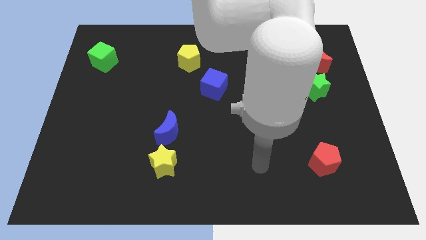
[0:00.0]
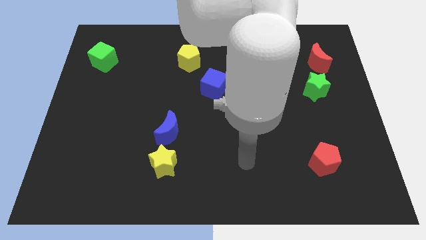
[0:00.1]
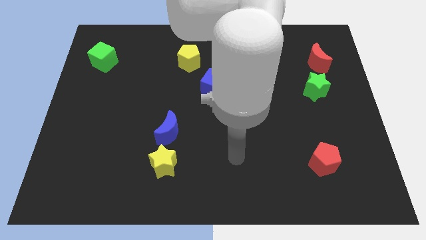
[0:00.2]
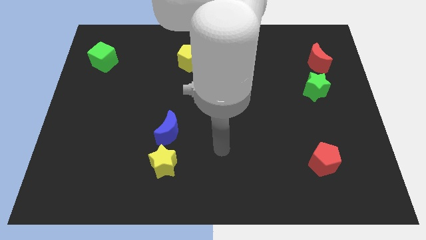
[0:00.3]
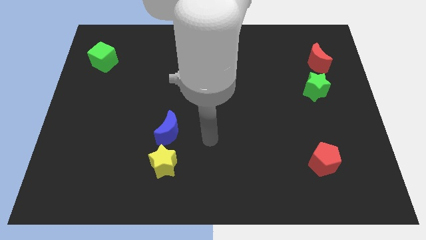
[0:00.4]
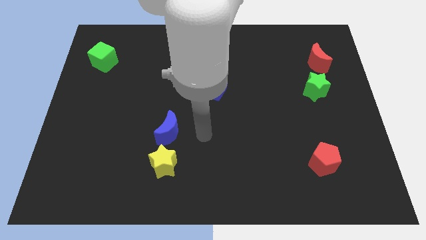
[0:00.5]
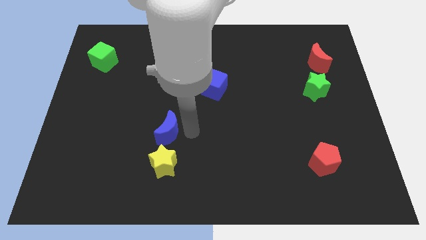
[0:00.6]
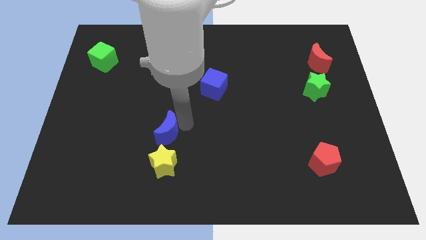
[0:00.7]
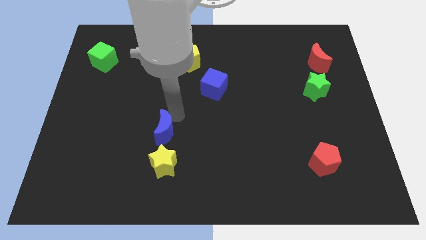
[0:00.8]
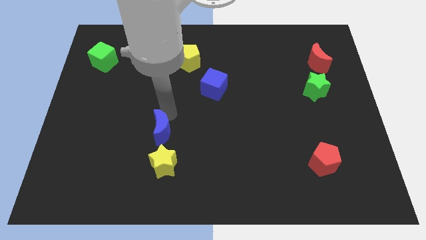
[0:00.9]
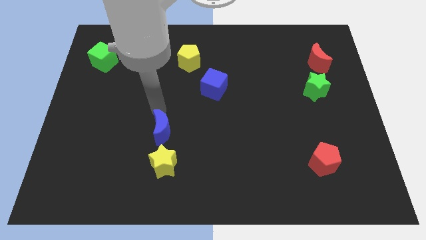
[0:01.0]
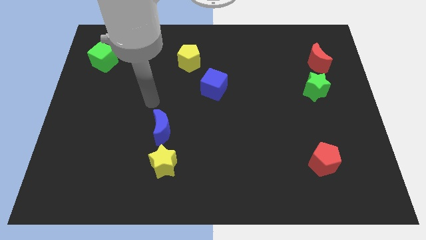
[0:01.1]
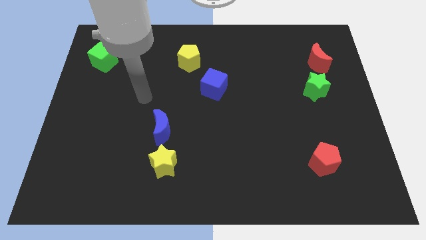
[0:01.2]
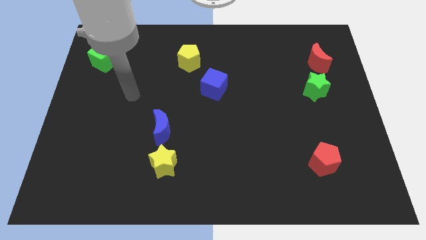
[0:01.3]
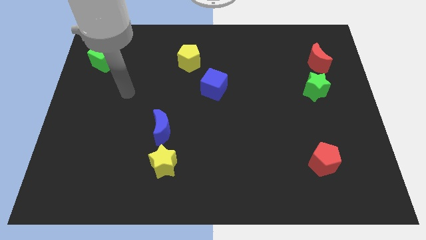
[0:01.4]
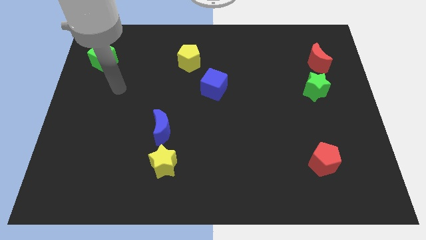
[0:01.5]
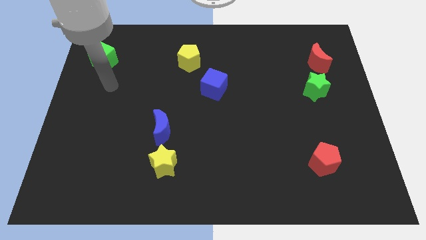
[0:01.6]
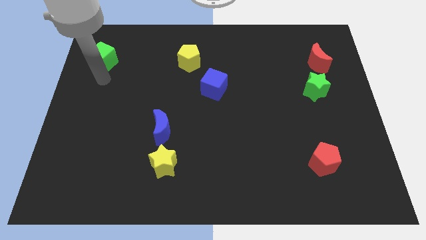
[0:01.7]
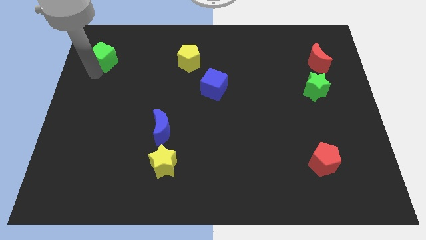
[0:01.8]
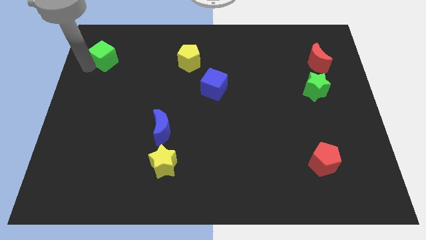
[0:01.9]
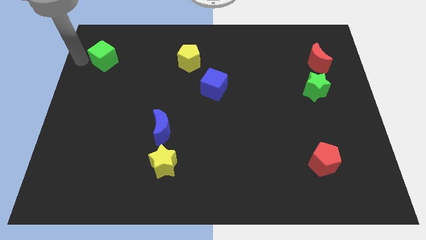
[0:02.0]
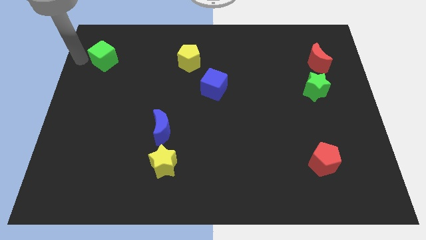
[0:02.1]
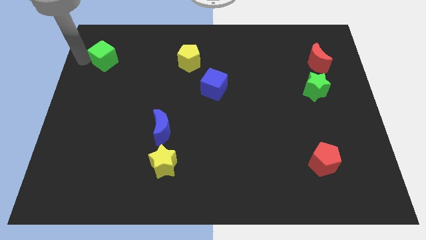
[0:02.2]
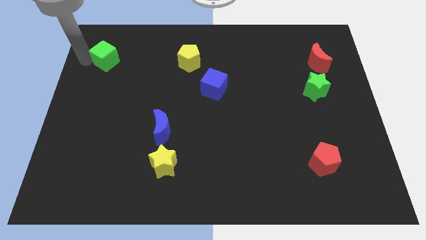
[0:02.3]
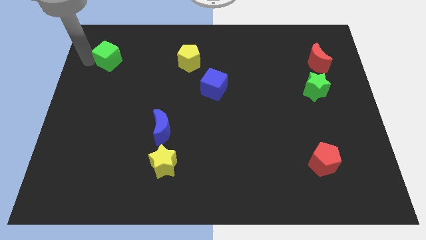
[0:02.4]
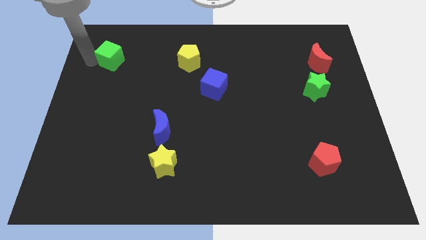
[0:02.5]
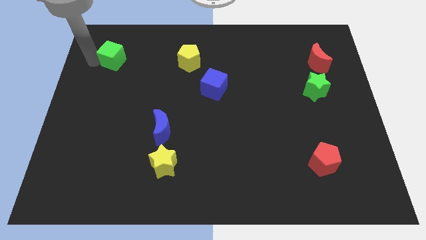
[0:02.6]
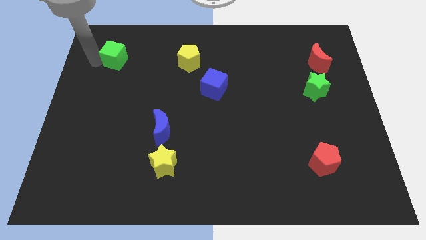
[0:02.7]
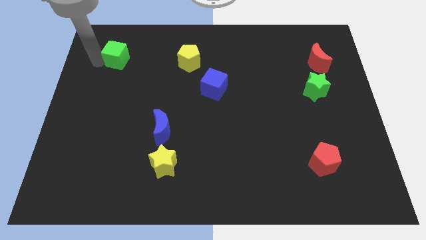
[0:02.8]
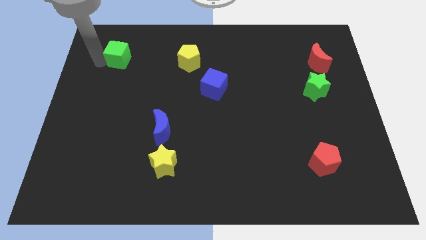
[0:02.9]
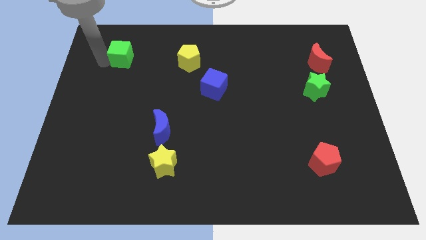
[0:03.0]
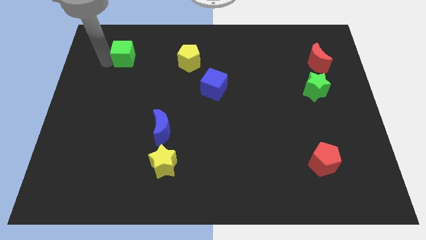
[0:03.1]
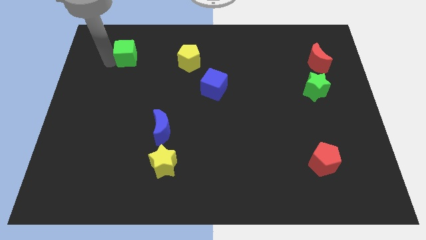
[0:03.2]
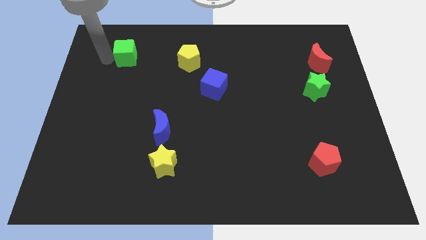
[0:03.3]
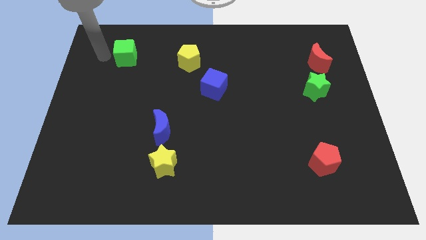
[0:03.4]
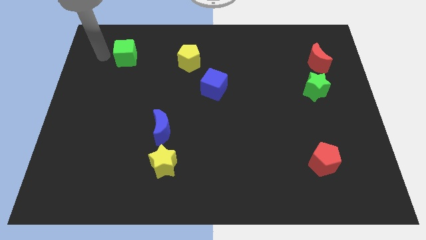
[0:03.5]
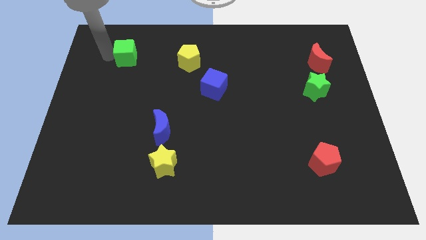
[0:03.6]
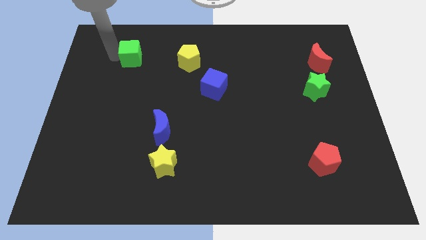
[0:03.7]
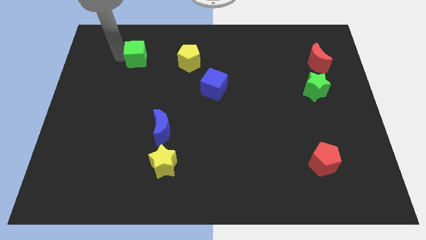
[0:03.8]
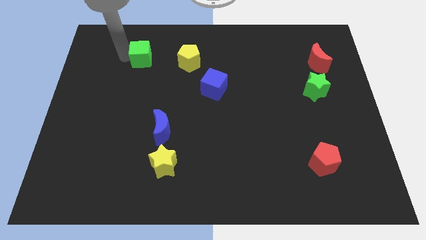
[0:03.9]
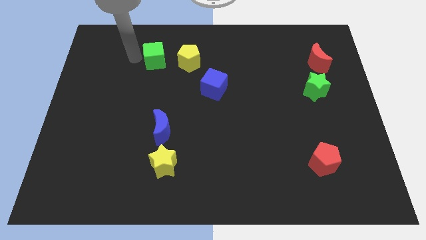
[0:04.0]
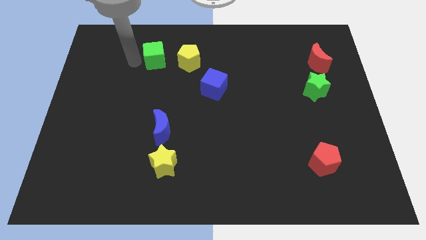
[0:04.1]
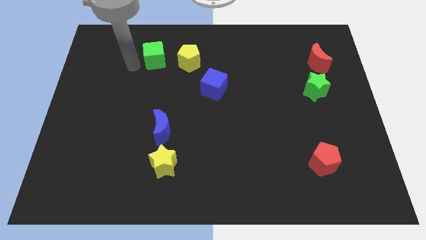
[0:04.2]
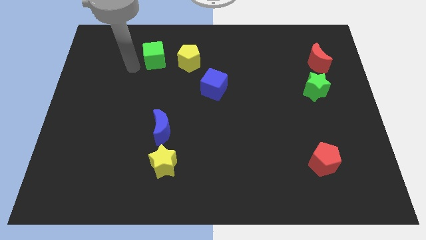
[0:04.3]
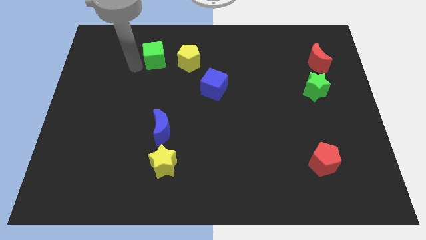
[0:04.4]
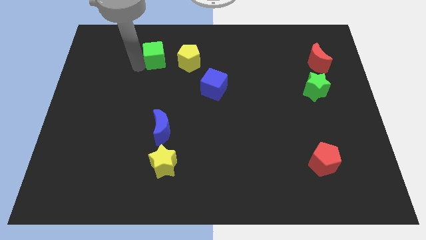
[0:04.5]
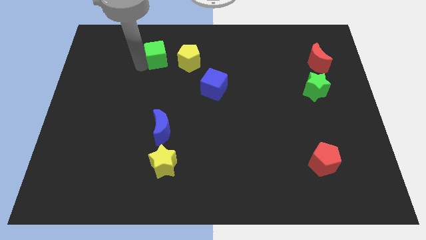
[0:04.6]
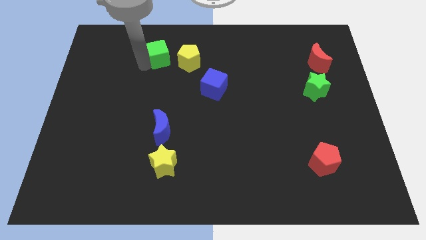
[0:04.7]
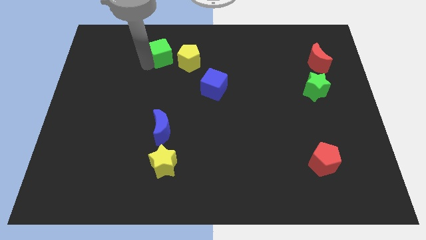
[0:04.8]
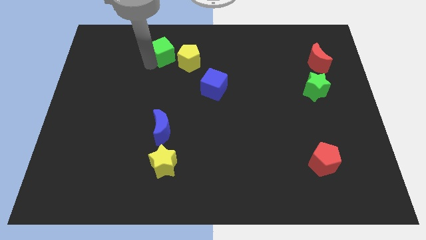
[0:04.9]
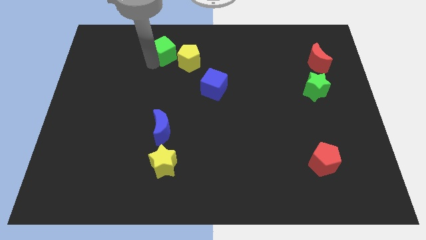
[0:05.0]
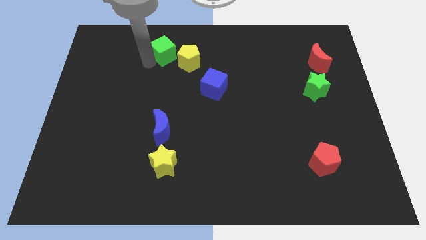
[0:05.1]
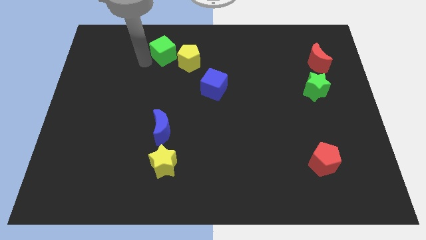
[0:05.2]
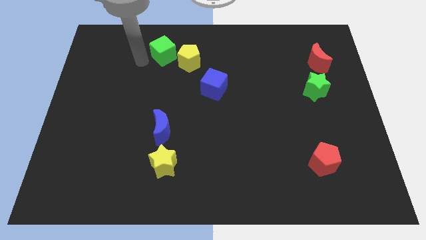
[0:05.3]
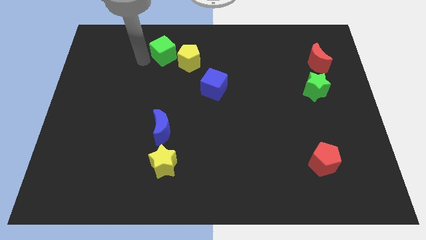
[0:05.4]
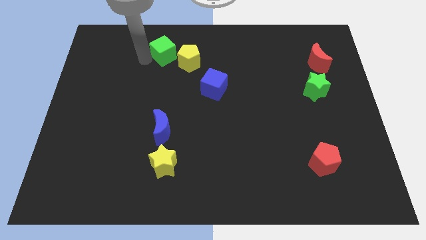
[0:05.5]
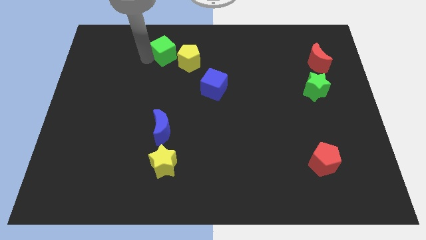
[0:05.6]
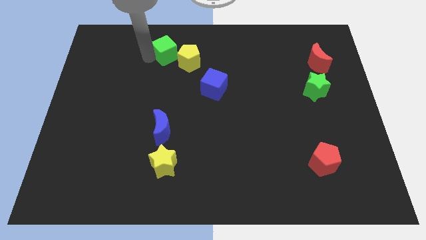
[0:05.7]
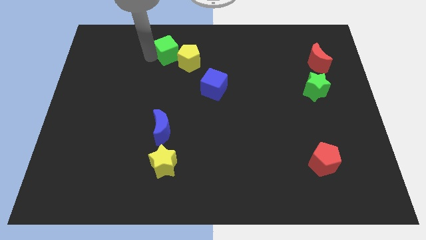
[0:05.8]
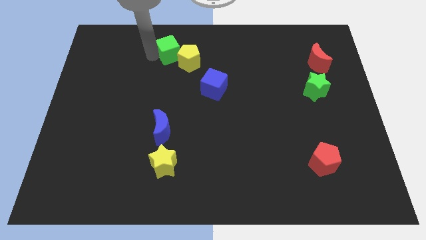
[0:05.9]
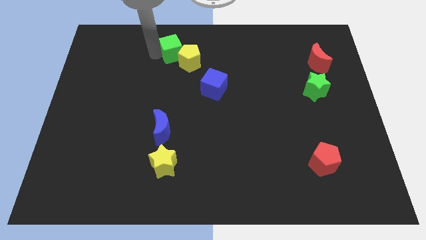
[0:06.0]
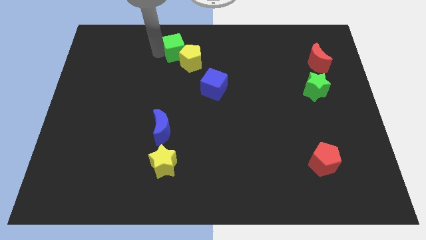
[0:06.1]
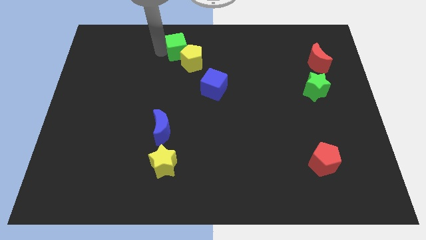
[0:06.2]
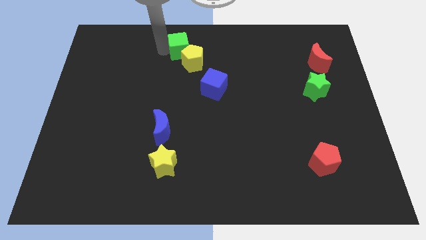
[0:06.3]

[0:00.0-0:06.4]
move the green cube to the top side

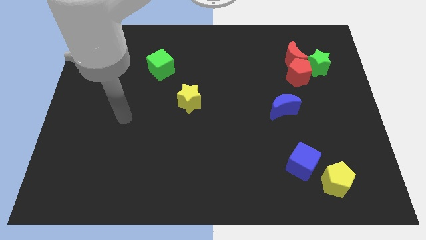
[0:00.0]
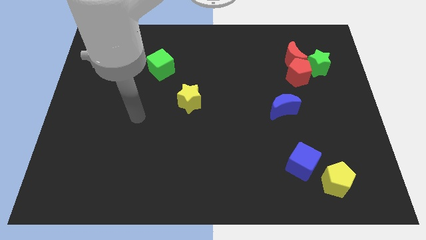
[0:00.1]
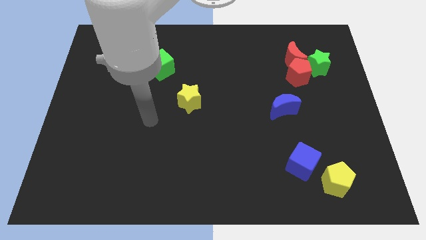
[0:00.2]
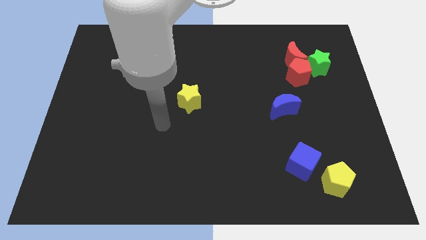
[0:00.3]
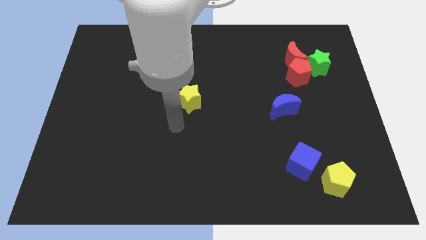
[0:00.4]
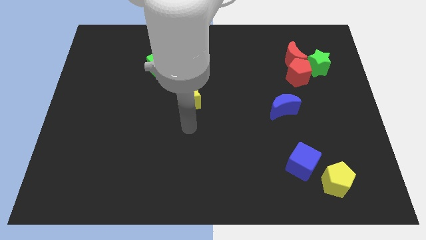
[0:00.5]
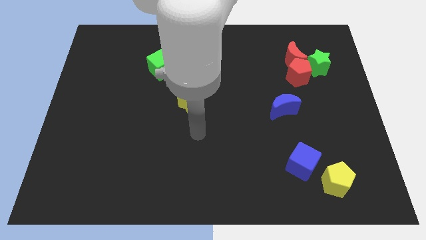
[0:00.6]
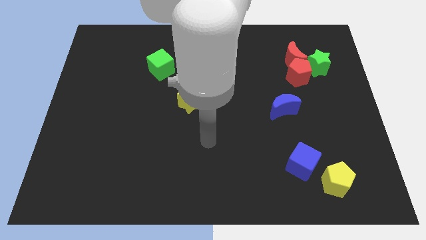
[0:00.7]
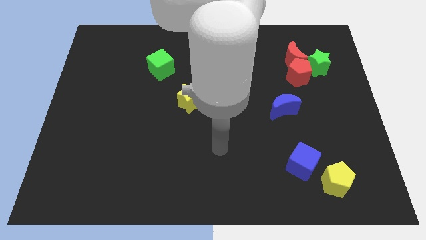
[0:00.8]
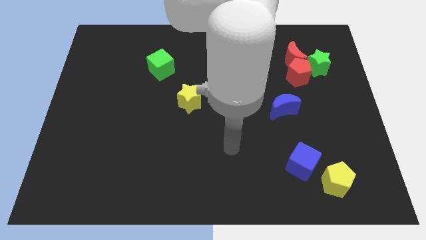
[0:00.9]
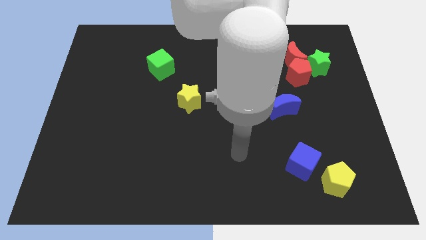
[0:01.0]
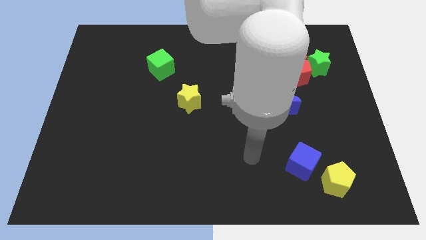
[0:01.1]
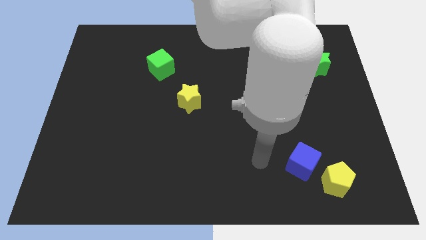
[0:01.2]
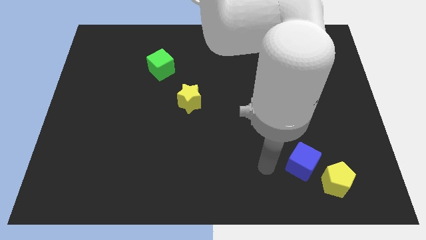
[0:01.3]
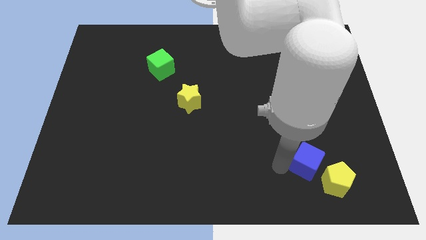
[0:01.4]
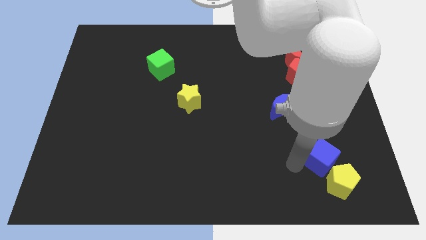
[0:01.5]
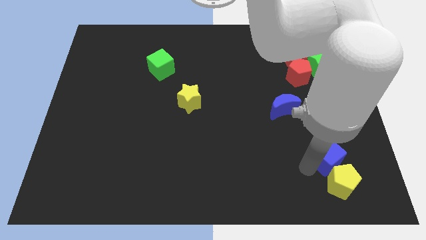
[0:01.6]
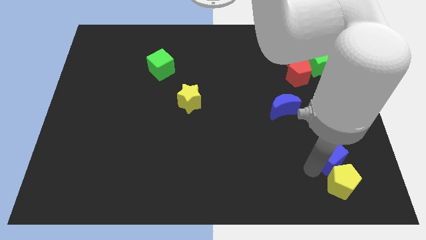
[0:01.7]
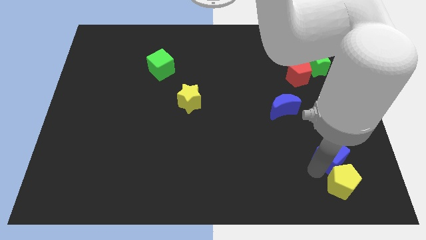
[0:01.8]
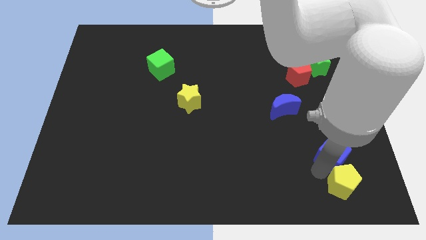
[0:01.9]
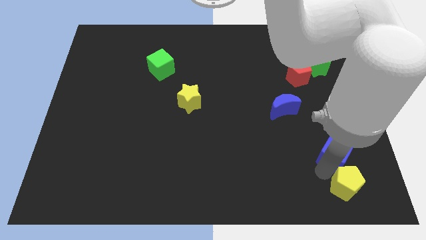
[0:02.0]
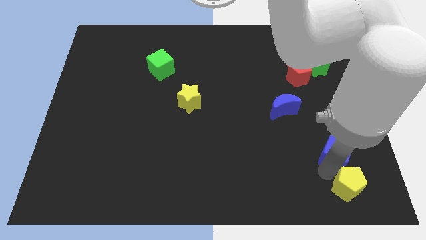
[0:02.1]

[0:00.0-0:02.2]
put the yellow pentagon to the bottom right of the board
